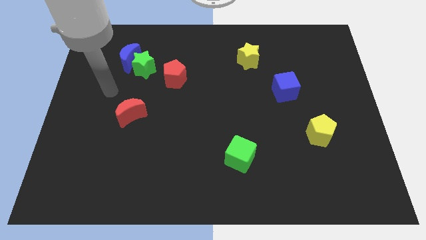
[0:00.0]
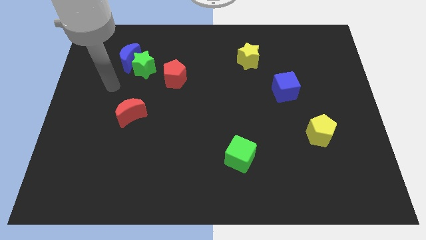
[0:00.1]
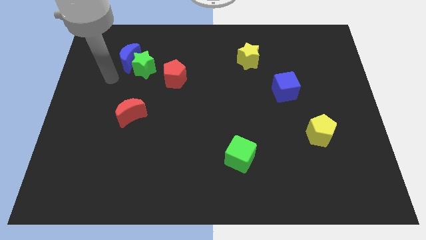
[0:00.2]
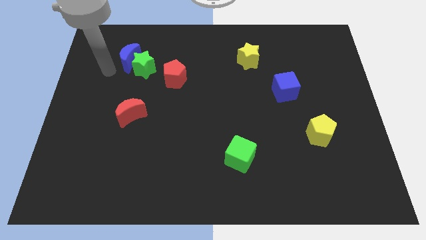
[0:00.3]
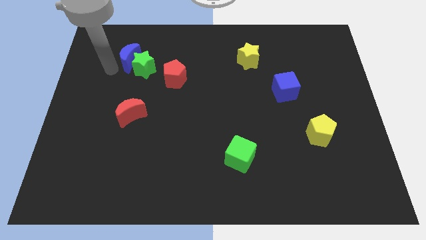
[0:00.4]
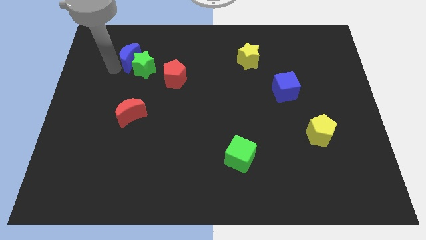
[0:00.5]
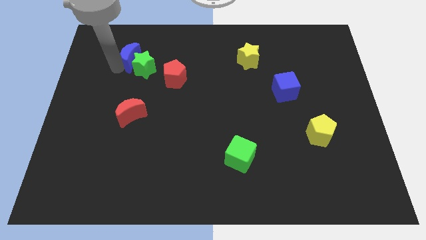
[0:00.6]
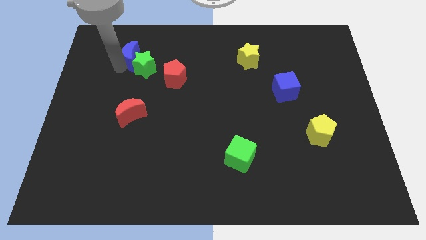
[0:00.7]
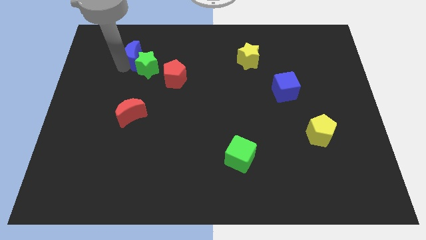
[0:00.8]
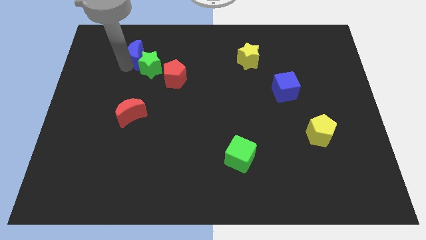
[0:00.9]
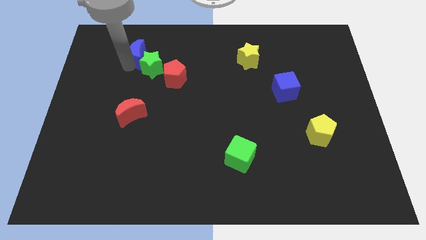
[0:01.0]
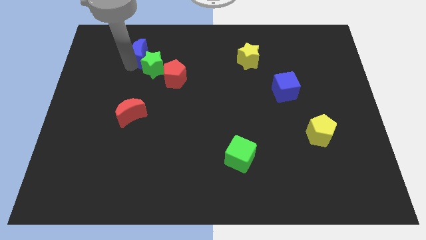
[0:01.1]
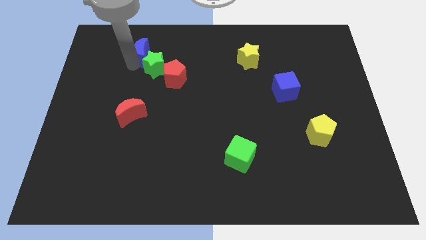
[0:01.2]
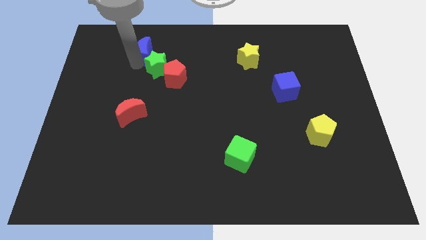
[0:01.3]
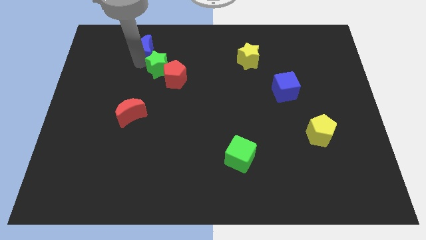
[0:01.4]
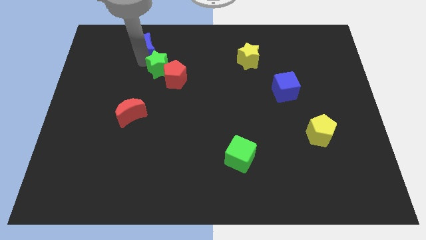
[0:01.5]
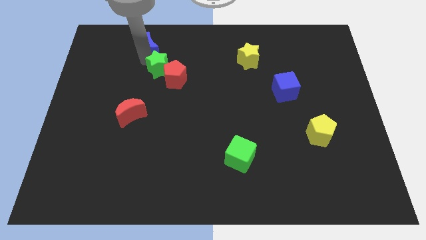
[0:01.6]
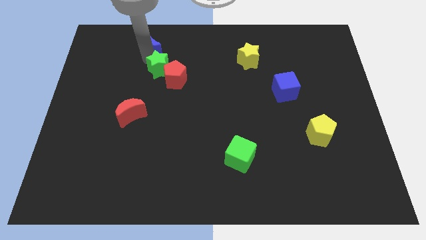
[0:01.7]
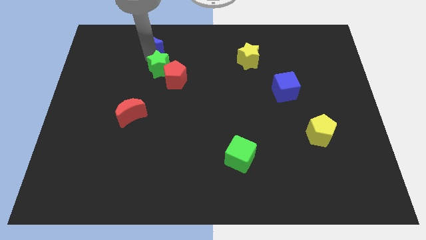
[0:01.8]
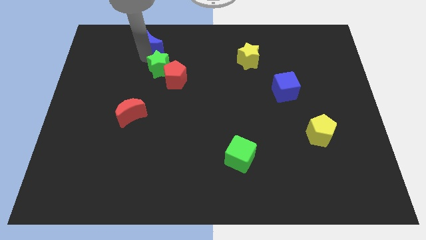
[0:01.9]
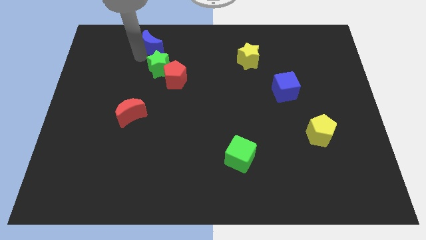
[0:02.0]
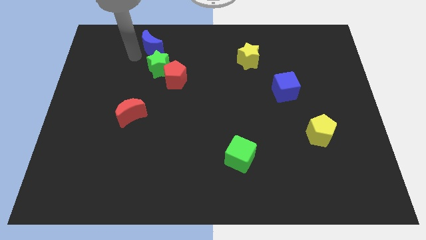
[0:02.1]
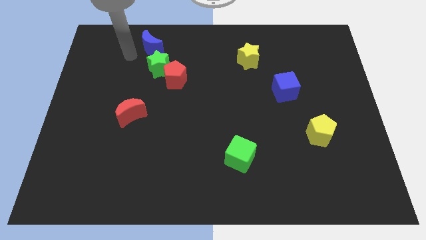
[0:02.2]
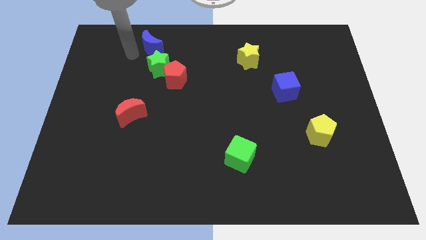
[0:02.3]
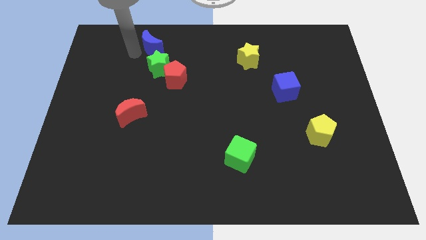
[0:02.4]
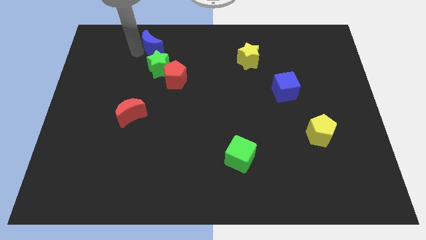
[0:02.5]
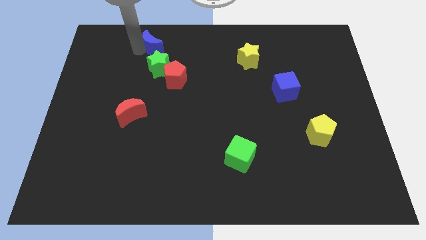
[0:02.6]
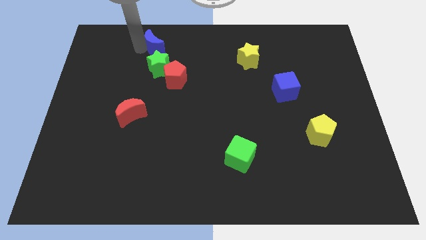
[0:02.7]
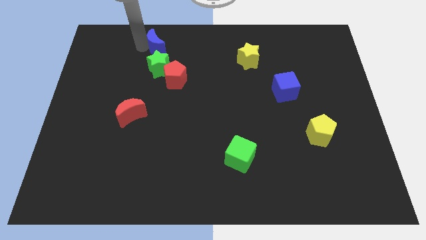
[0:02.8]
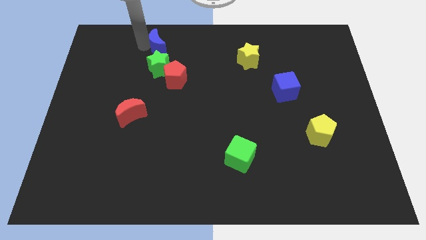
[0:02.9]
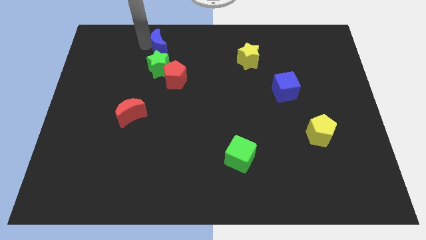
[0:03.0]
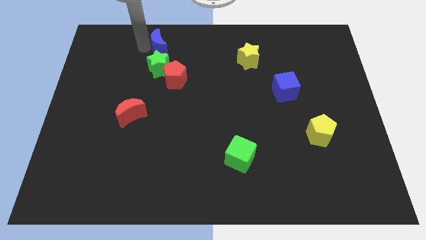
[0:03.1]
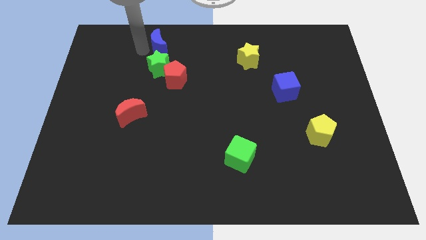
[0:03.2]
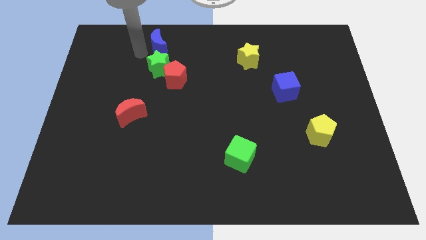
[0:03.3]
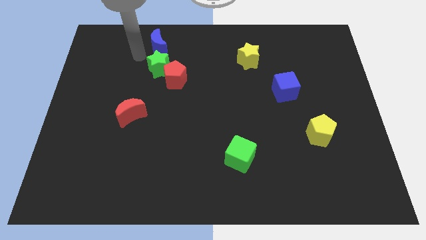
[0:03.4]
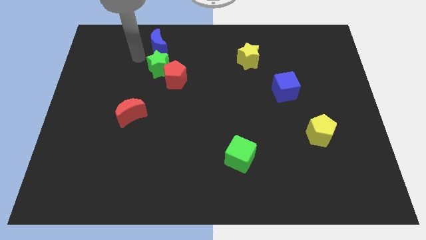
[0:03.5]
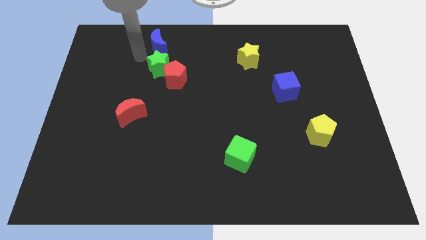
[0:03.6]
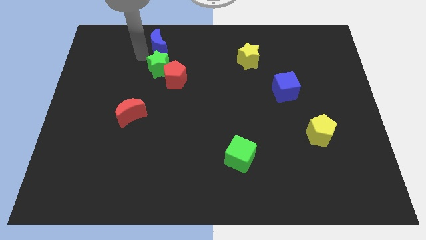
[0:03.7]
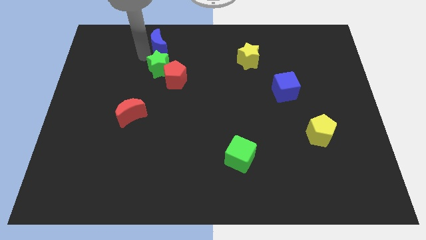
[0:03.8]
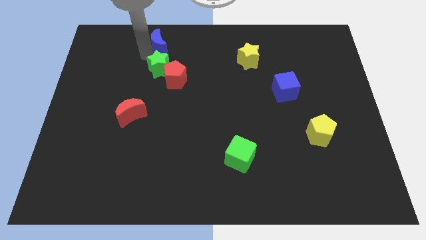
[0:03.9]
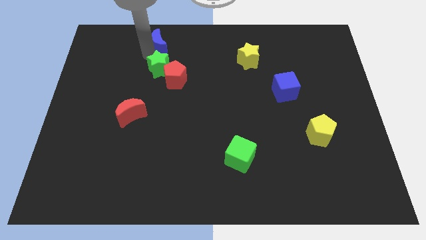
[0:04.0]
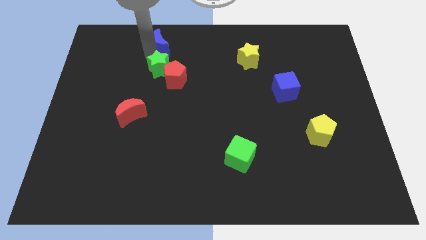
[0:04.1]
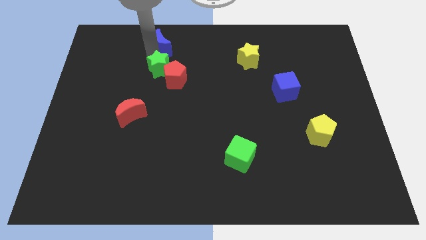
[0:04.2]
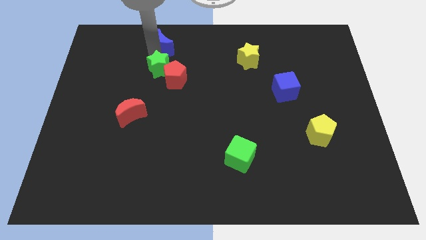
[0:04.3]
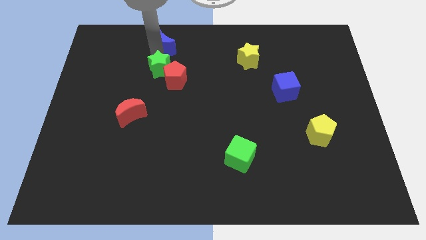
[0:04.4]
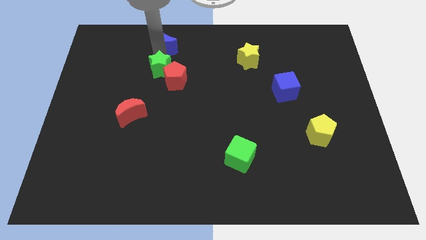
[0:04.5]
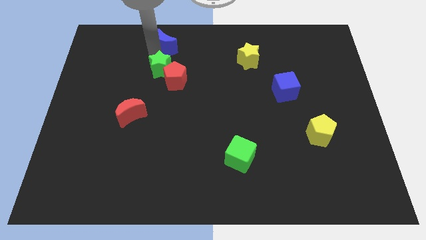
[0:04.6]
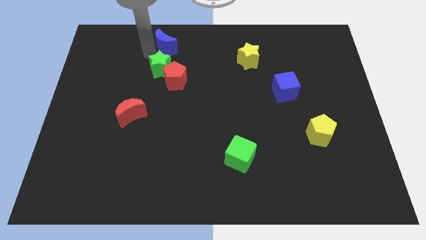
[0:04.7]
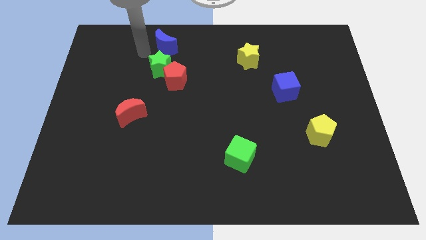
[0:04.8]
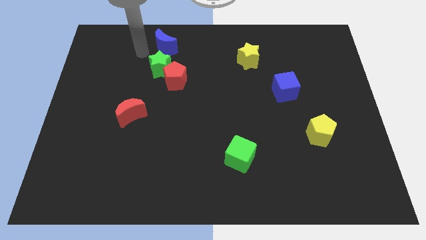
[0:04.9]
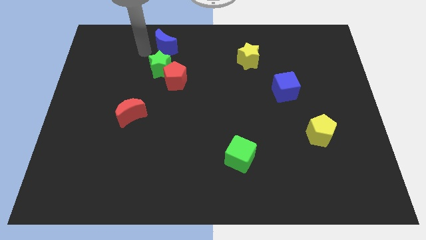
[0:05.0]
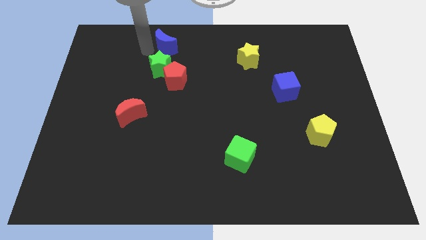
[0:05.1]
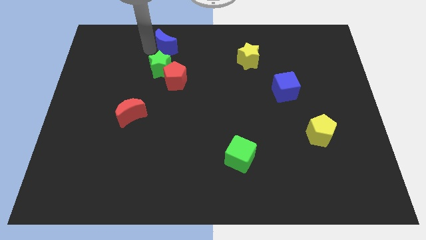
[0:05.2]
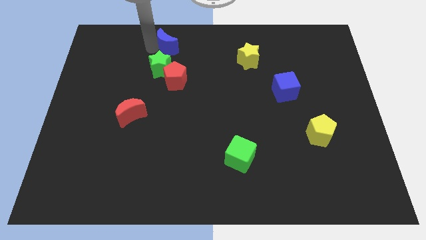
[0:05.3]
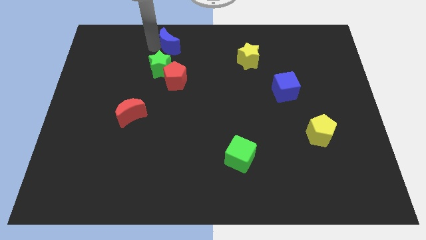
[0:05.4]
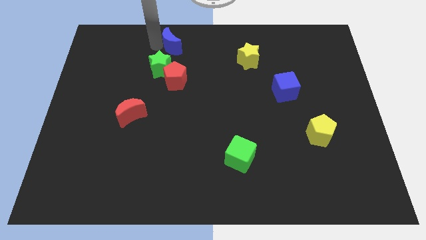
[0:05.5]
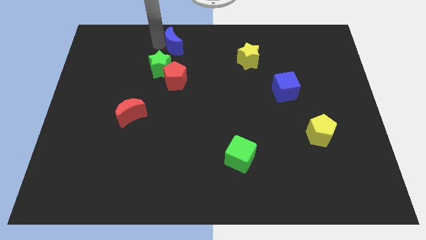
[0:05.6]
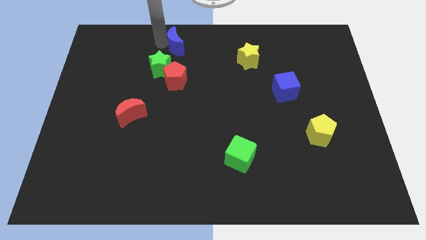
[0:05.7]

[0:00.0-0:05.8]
push the blue moon to the towards your base

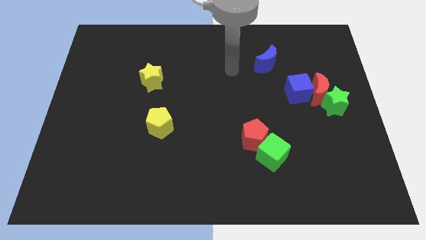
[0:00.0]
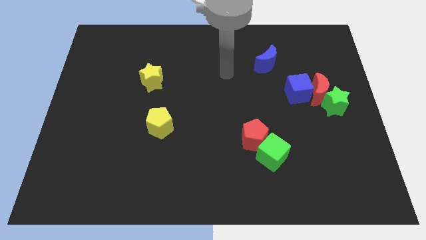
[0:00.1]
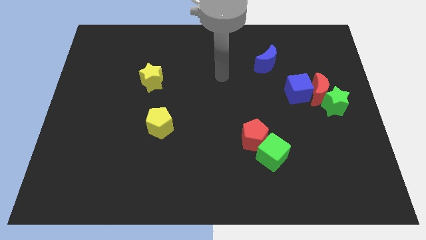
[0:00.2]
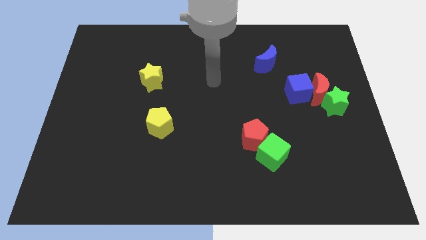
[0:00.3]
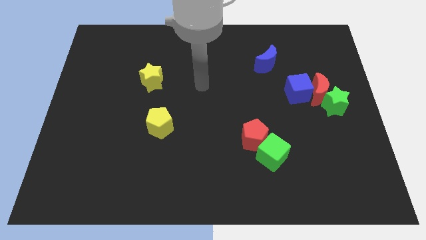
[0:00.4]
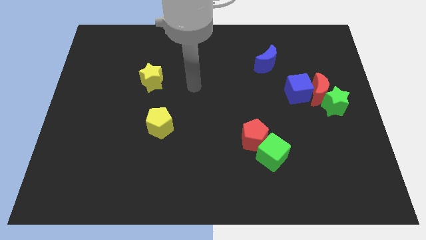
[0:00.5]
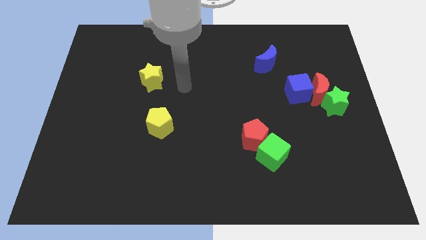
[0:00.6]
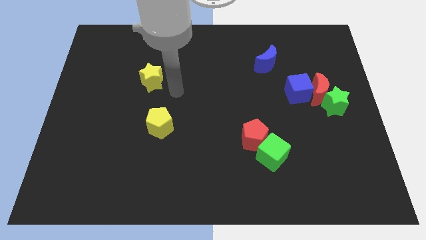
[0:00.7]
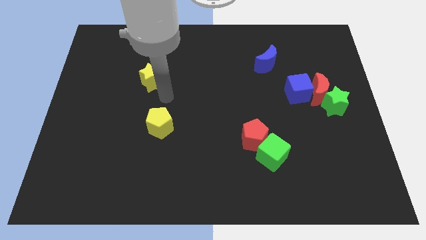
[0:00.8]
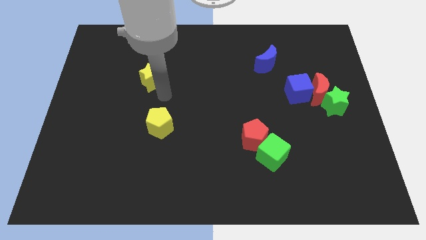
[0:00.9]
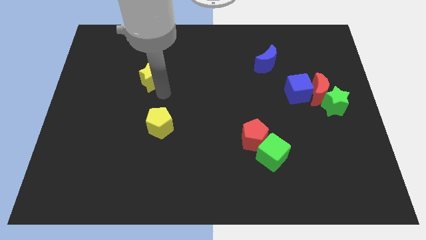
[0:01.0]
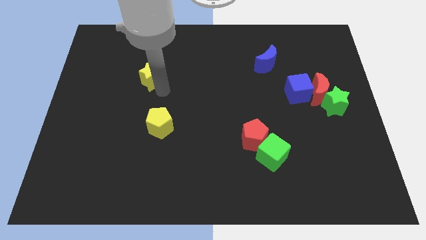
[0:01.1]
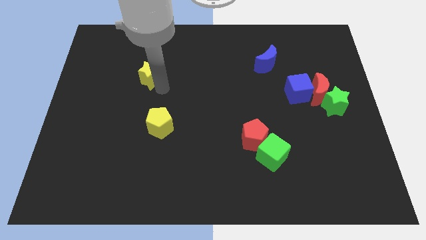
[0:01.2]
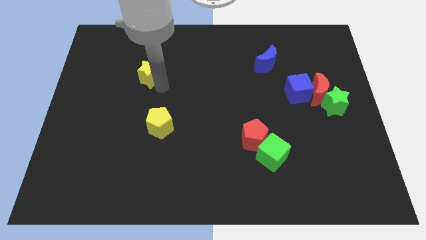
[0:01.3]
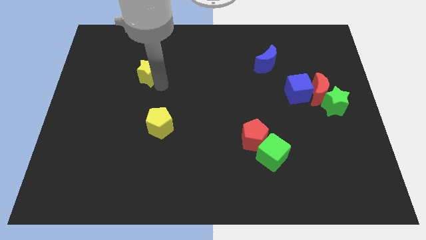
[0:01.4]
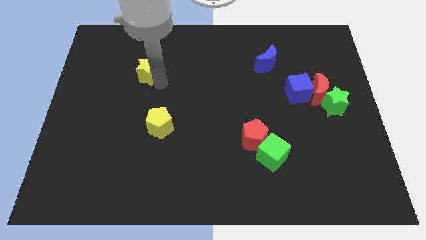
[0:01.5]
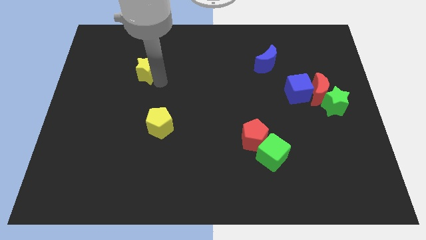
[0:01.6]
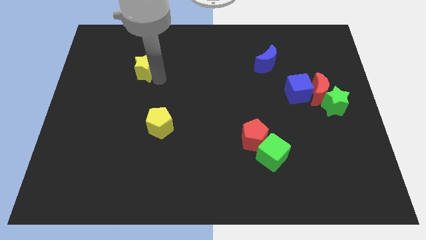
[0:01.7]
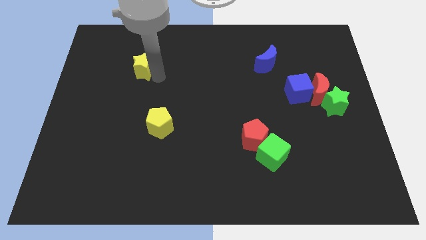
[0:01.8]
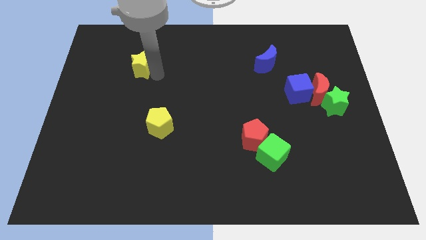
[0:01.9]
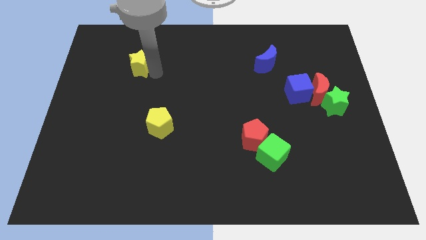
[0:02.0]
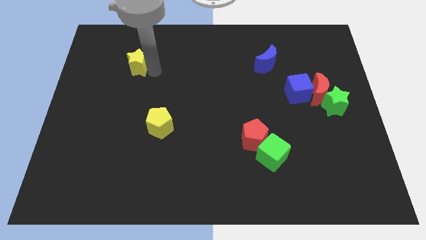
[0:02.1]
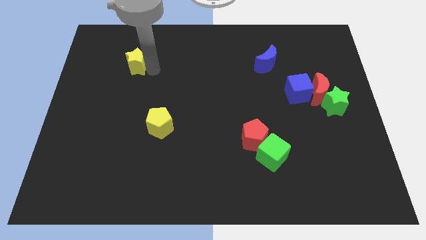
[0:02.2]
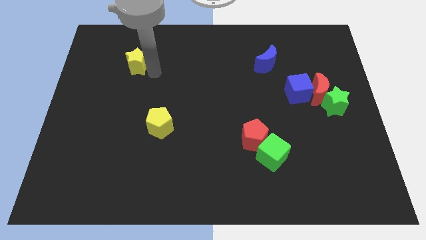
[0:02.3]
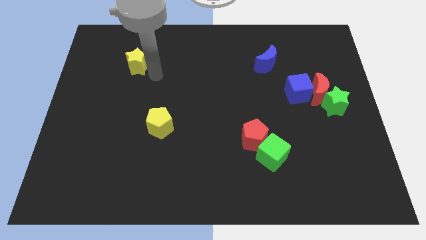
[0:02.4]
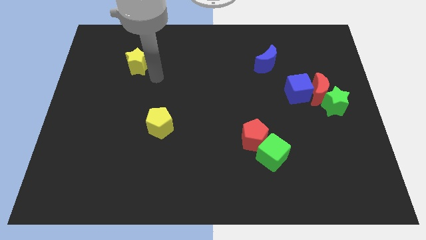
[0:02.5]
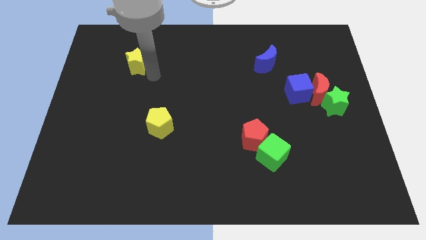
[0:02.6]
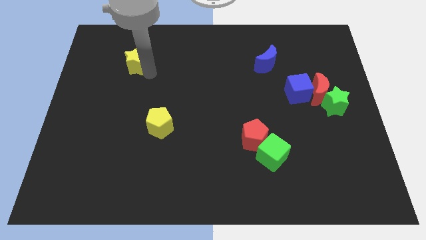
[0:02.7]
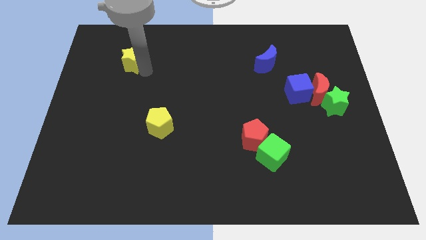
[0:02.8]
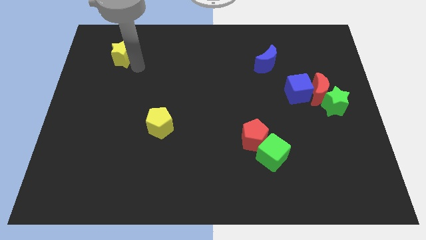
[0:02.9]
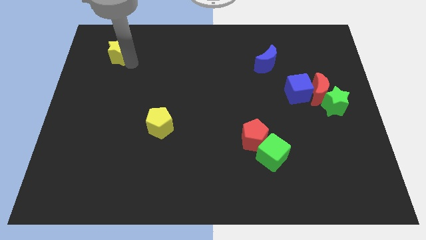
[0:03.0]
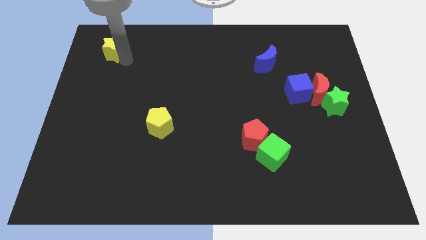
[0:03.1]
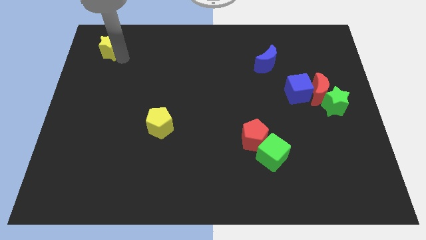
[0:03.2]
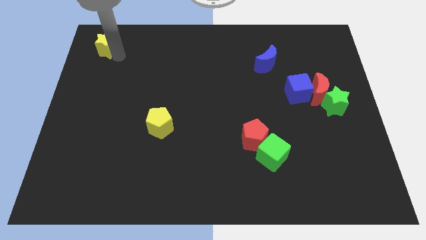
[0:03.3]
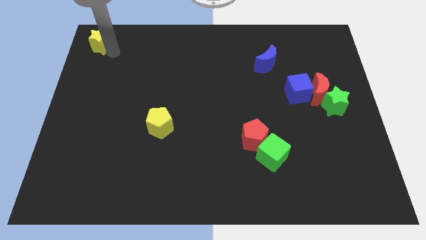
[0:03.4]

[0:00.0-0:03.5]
put the yellow star to the top left
